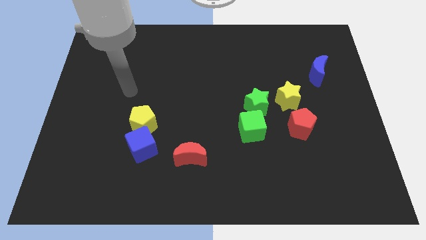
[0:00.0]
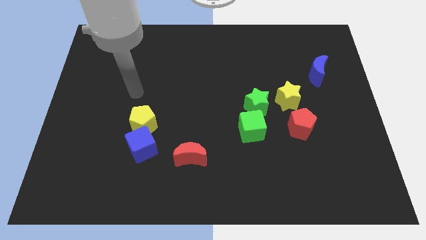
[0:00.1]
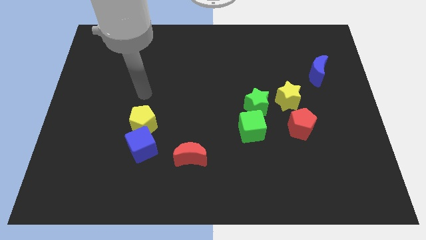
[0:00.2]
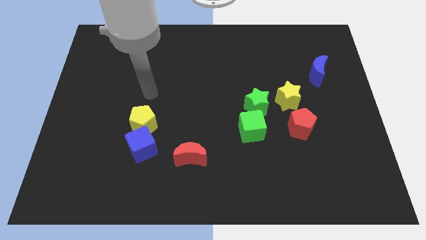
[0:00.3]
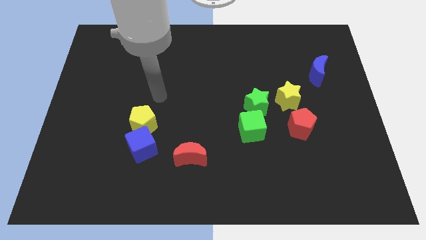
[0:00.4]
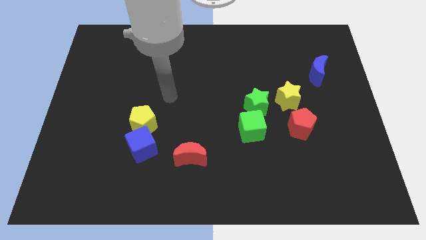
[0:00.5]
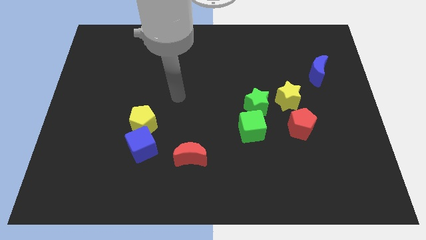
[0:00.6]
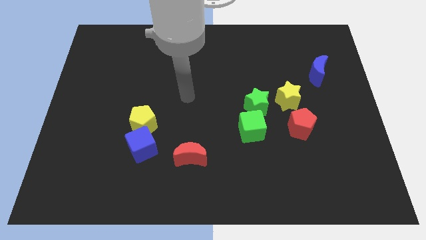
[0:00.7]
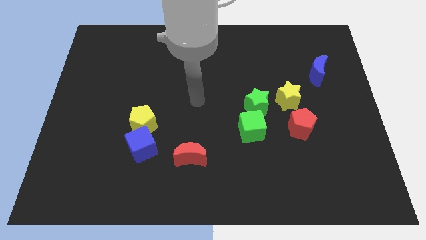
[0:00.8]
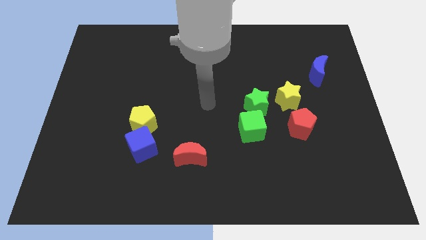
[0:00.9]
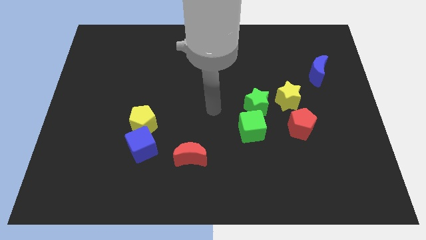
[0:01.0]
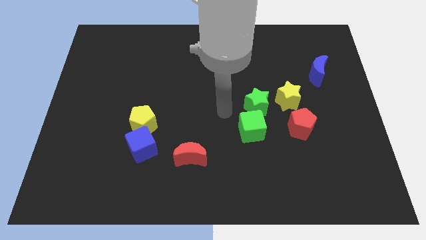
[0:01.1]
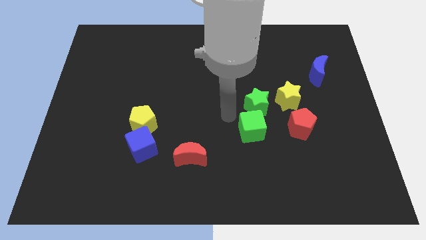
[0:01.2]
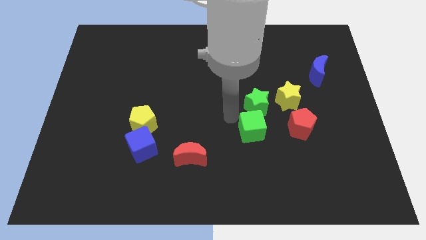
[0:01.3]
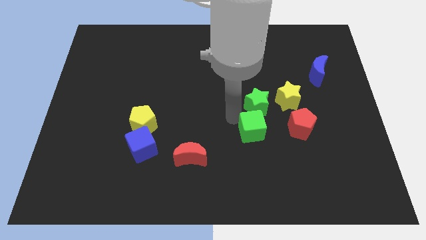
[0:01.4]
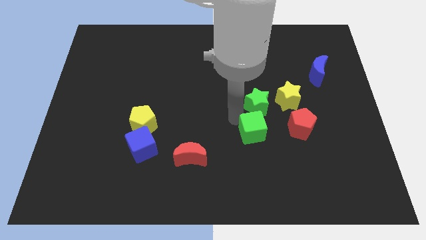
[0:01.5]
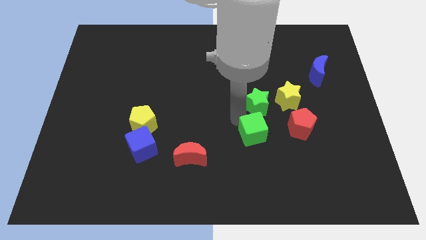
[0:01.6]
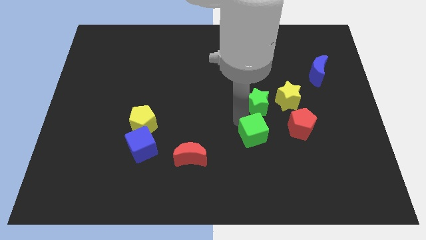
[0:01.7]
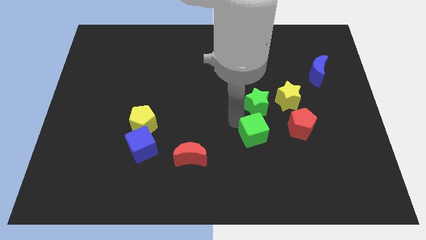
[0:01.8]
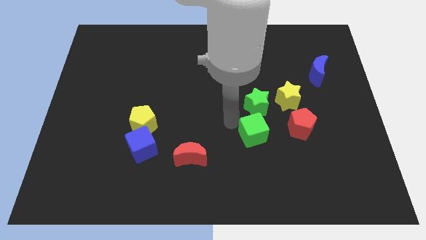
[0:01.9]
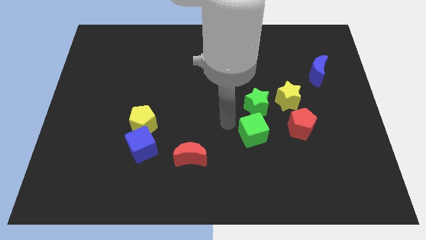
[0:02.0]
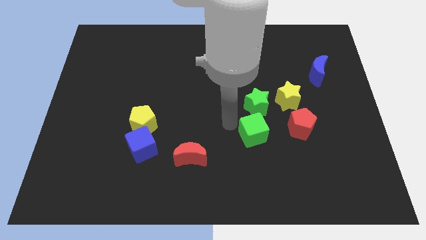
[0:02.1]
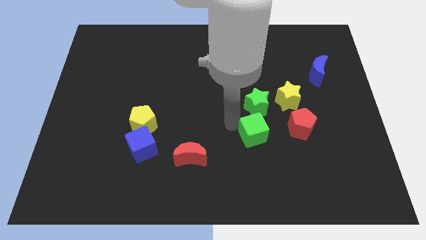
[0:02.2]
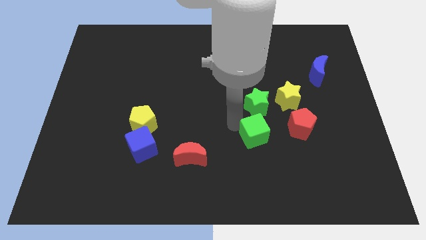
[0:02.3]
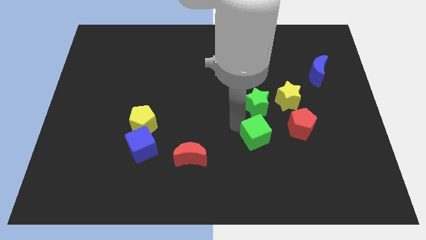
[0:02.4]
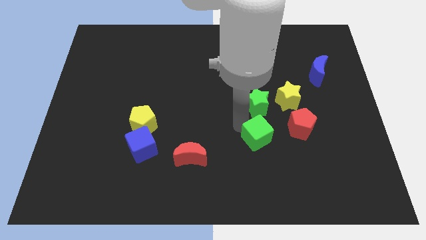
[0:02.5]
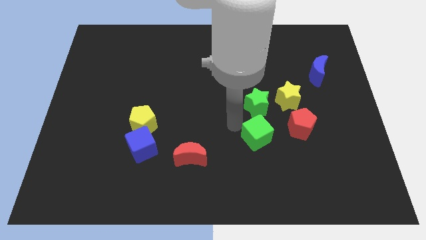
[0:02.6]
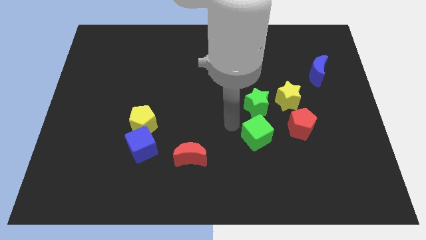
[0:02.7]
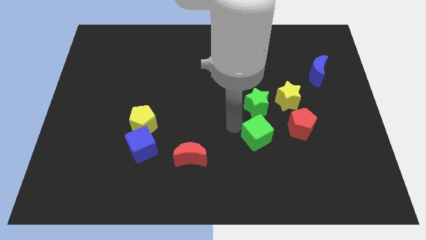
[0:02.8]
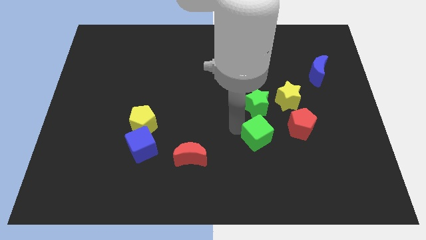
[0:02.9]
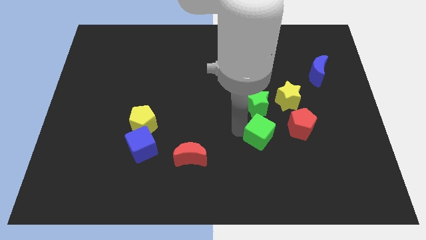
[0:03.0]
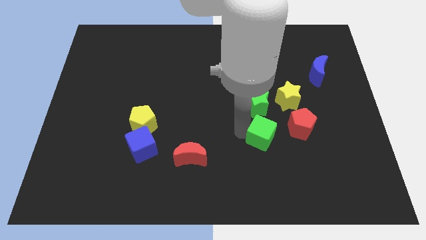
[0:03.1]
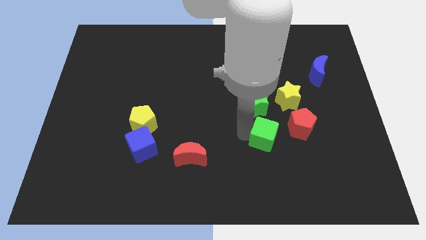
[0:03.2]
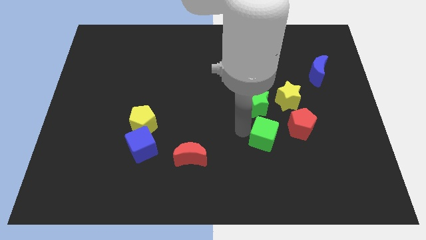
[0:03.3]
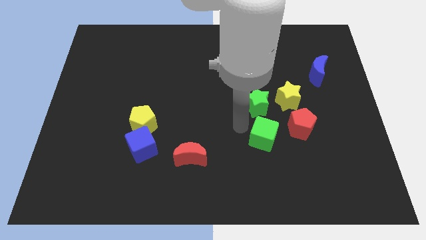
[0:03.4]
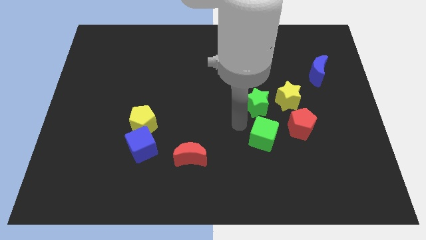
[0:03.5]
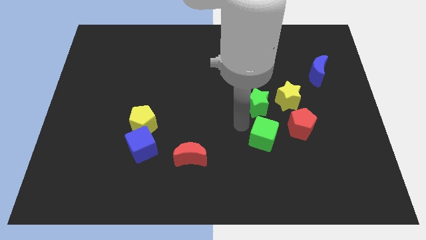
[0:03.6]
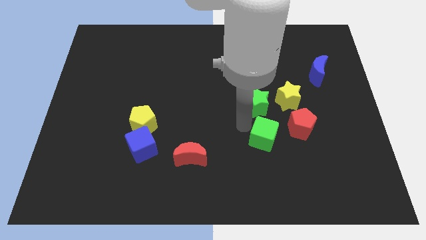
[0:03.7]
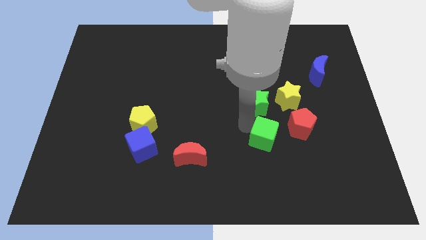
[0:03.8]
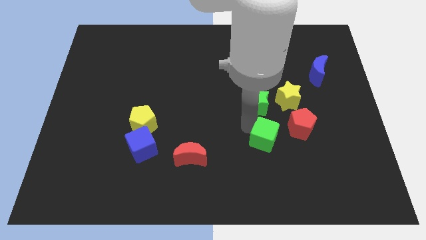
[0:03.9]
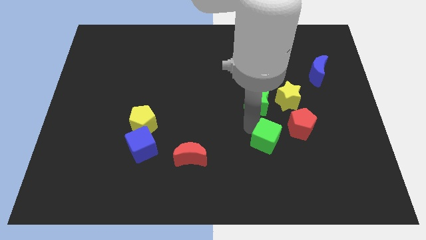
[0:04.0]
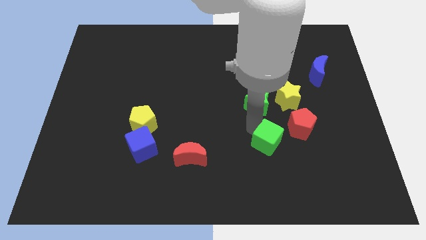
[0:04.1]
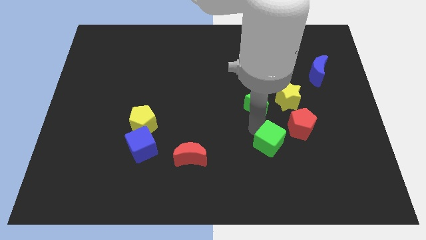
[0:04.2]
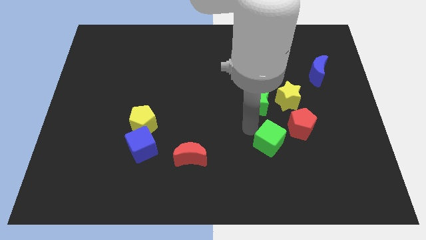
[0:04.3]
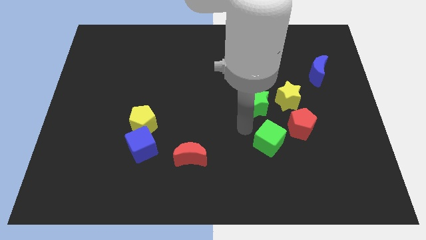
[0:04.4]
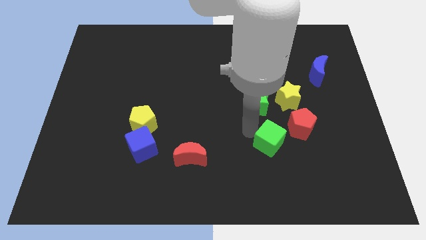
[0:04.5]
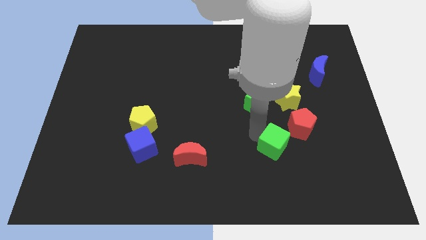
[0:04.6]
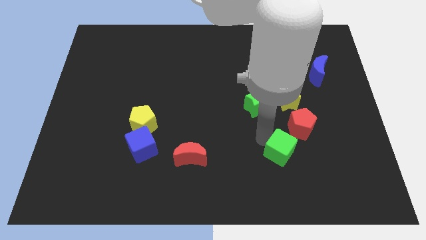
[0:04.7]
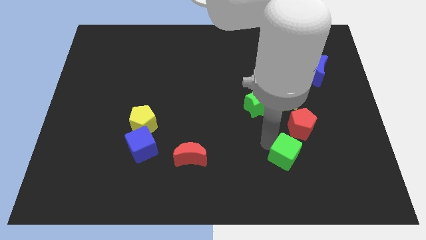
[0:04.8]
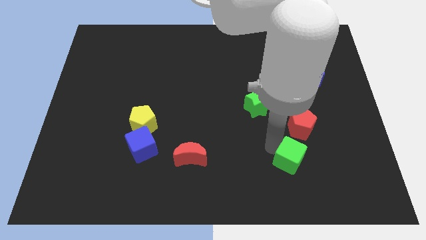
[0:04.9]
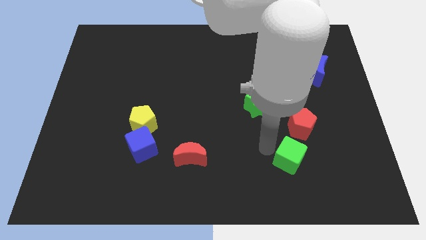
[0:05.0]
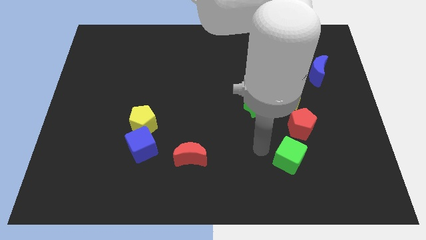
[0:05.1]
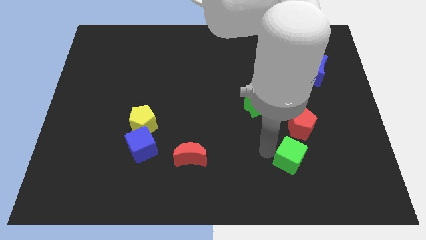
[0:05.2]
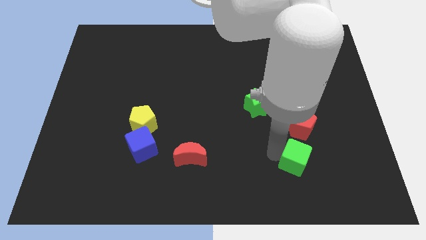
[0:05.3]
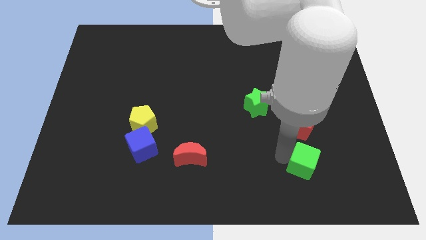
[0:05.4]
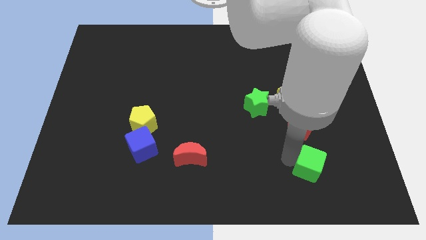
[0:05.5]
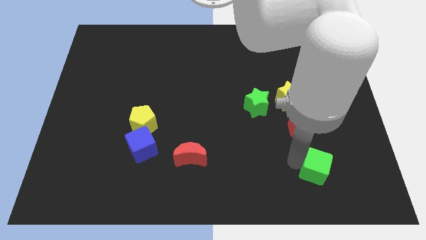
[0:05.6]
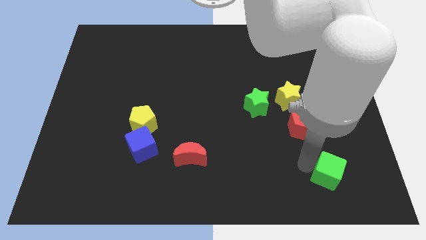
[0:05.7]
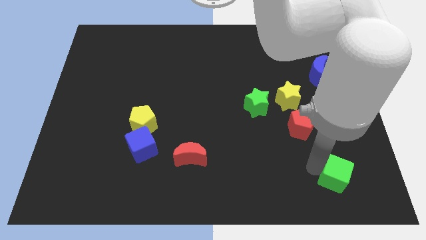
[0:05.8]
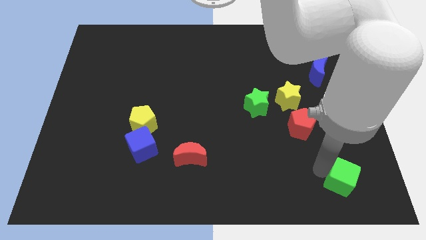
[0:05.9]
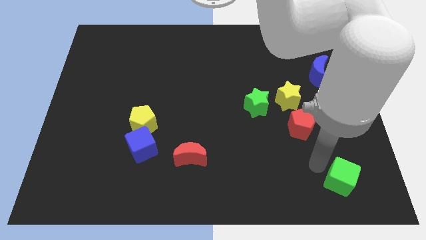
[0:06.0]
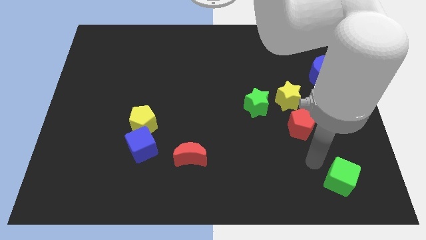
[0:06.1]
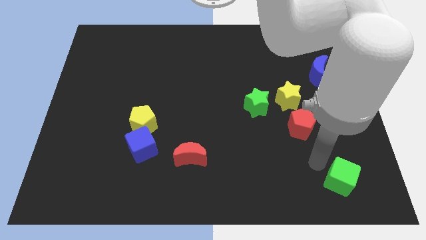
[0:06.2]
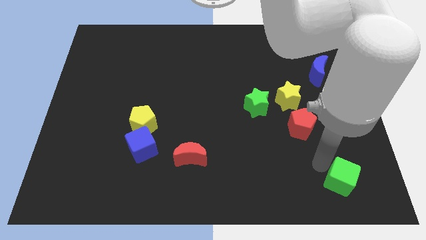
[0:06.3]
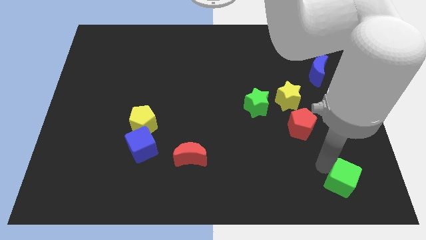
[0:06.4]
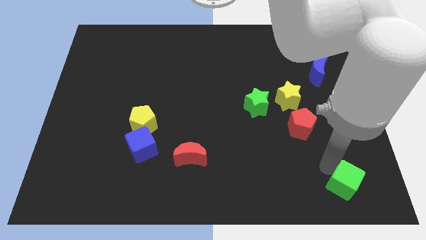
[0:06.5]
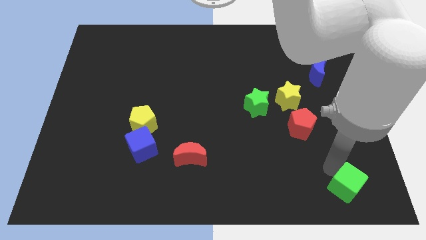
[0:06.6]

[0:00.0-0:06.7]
push the green cube to the lower right corner

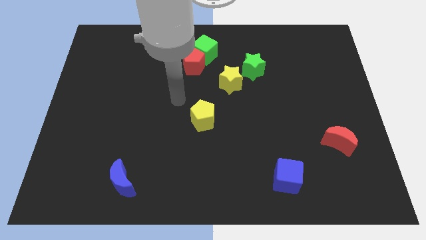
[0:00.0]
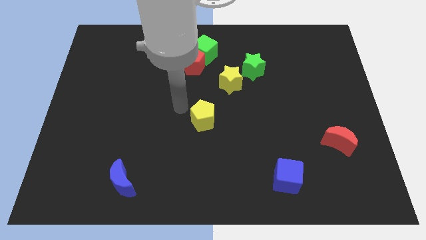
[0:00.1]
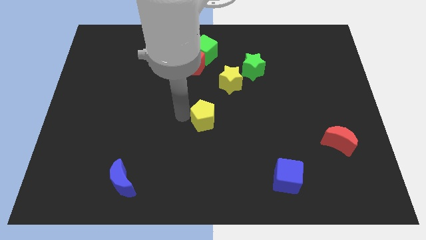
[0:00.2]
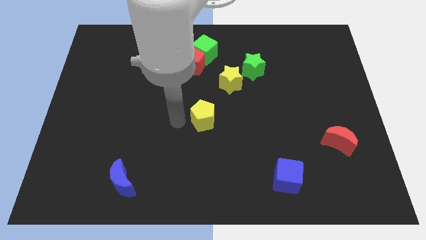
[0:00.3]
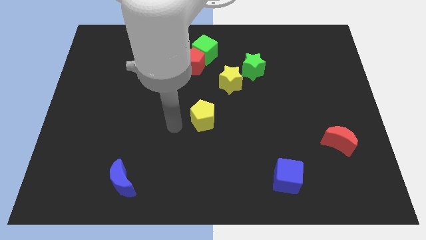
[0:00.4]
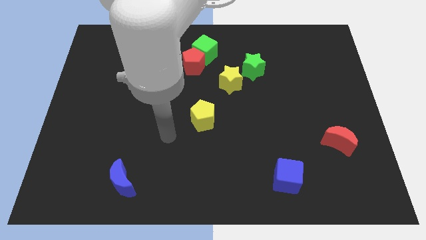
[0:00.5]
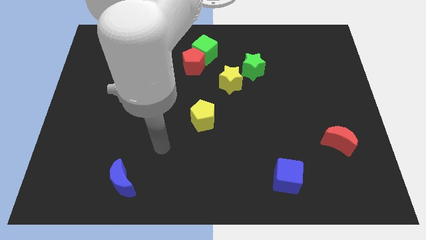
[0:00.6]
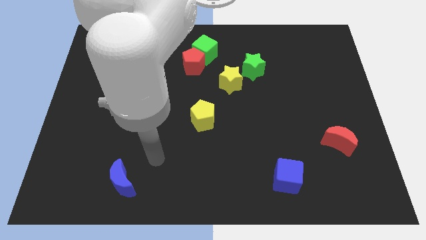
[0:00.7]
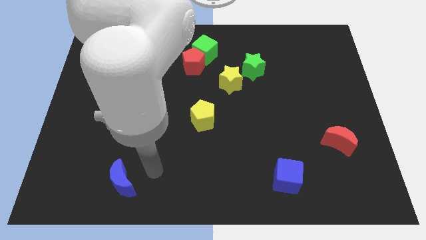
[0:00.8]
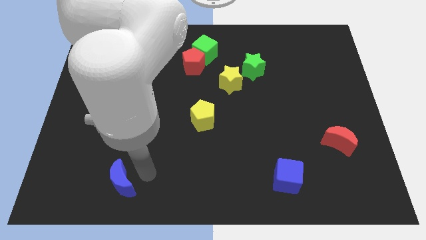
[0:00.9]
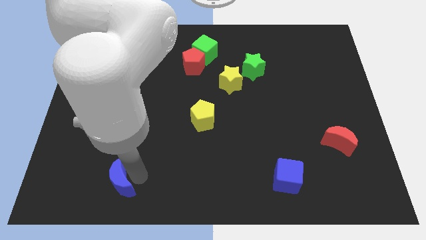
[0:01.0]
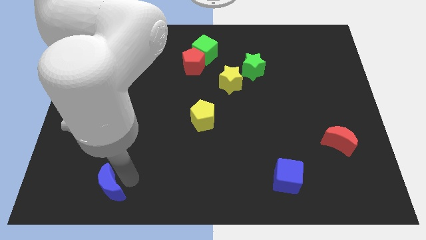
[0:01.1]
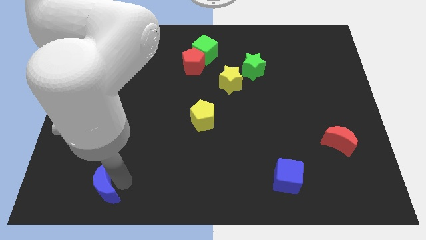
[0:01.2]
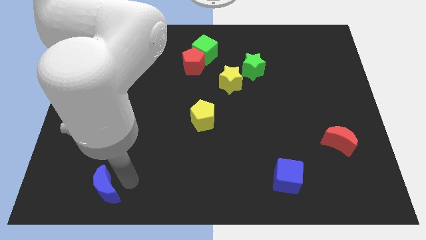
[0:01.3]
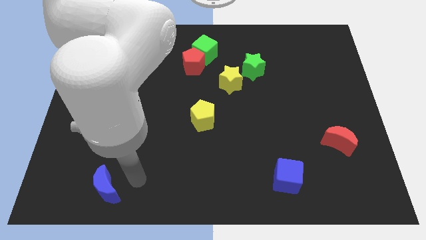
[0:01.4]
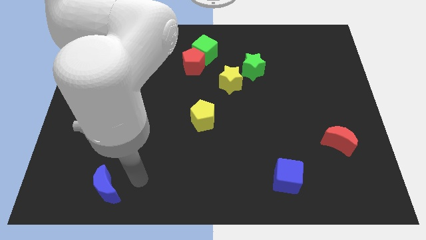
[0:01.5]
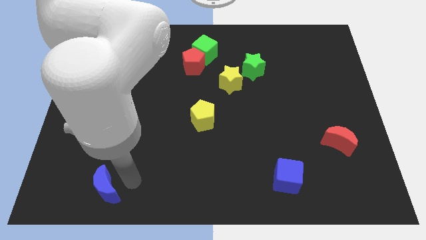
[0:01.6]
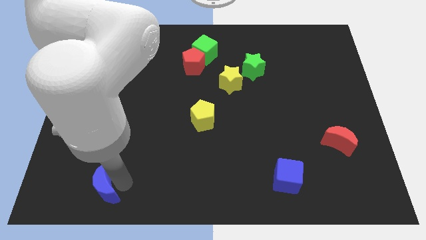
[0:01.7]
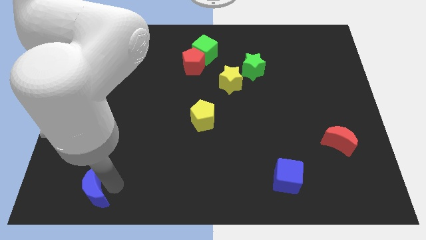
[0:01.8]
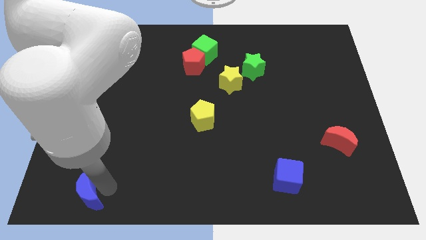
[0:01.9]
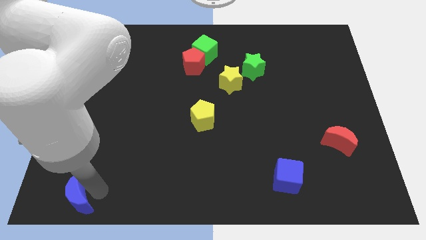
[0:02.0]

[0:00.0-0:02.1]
slide the blue moon to the bottom left corner
